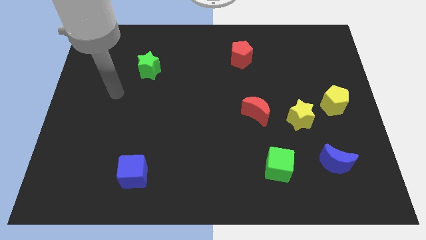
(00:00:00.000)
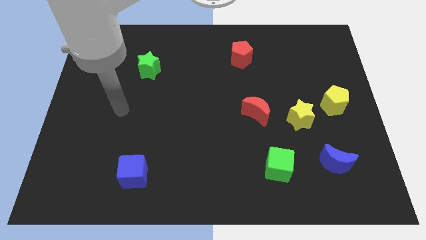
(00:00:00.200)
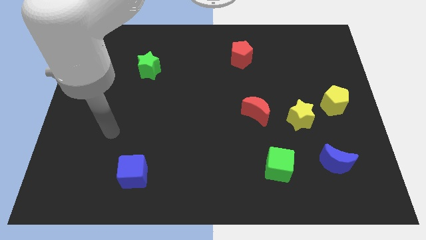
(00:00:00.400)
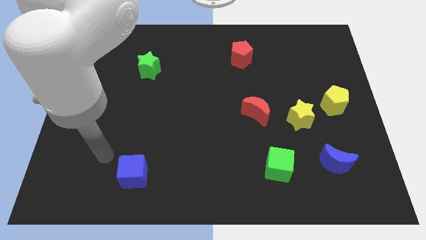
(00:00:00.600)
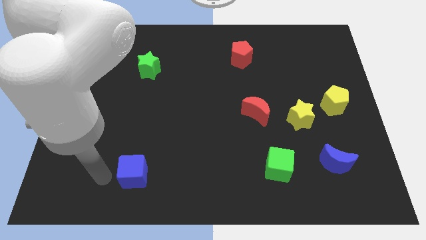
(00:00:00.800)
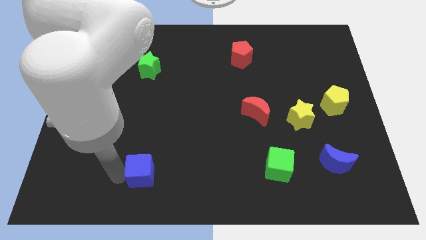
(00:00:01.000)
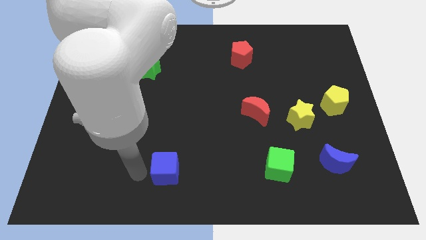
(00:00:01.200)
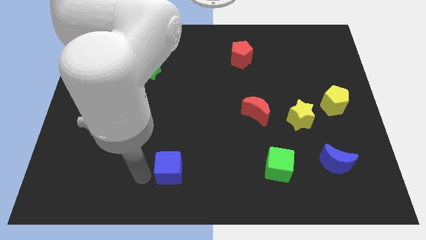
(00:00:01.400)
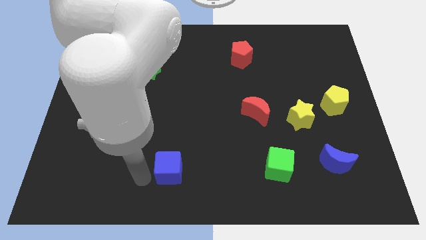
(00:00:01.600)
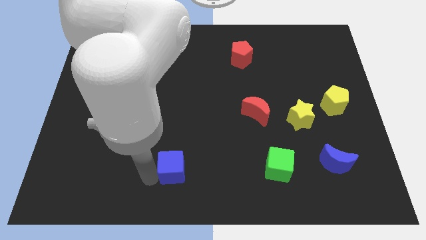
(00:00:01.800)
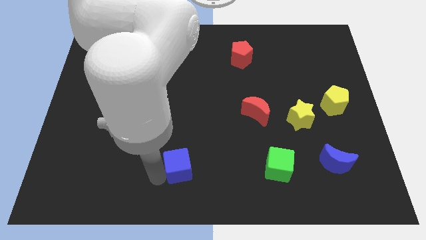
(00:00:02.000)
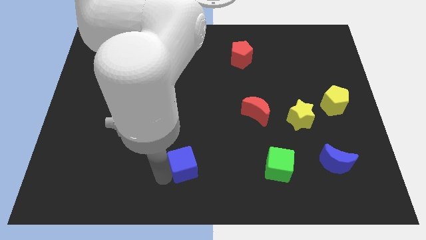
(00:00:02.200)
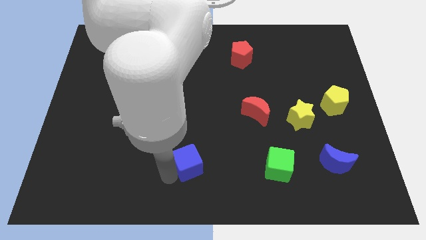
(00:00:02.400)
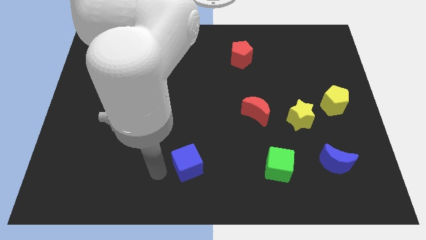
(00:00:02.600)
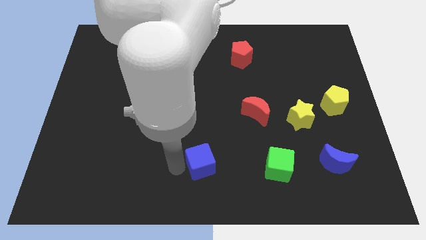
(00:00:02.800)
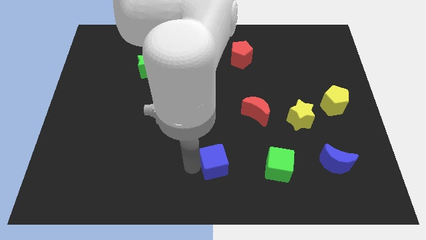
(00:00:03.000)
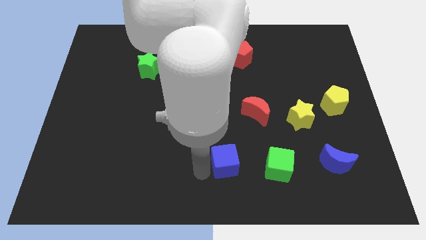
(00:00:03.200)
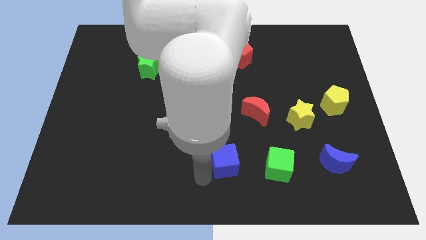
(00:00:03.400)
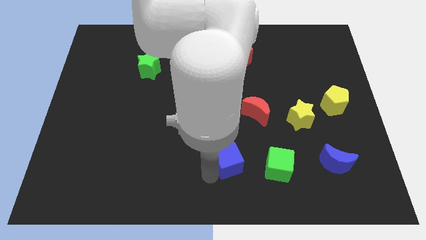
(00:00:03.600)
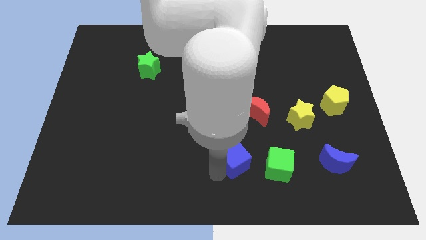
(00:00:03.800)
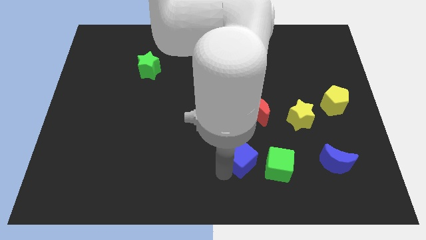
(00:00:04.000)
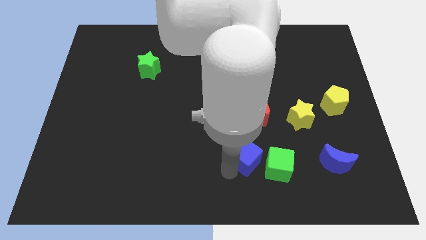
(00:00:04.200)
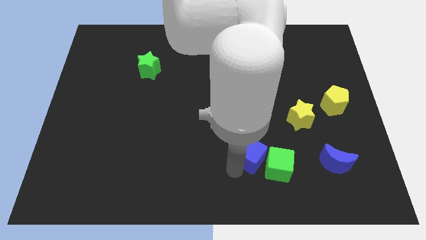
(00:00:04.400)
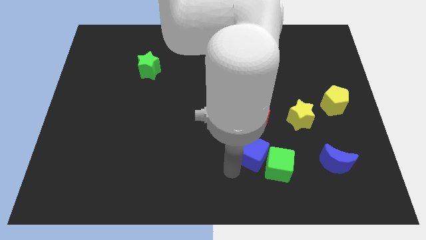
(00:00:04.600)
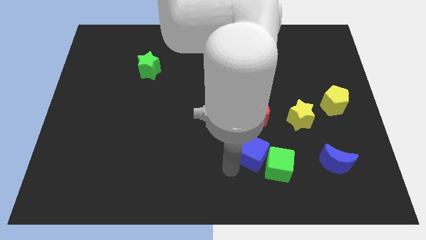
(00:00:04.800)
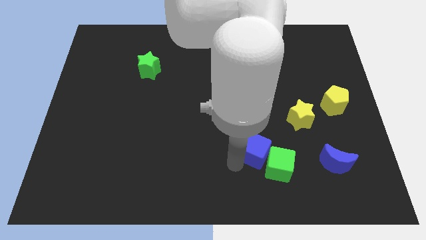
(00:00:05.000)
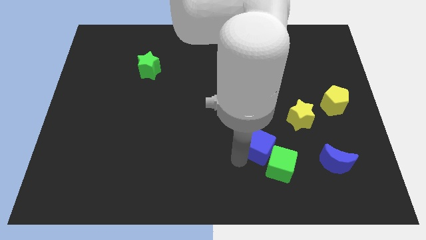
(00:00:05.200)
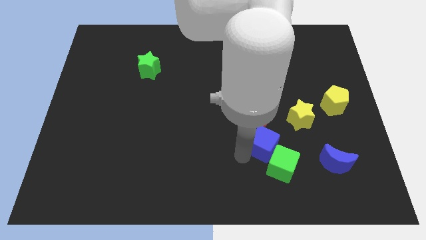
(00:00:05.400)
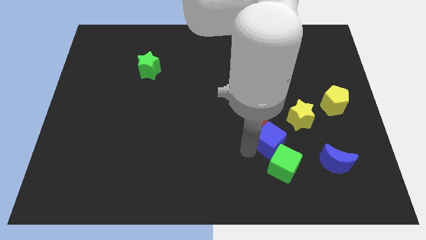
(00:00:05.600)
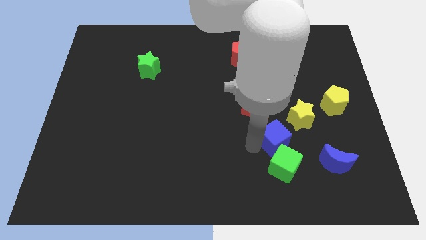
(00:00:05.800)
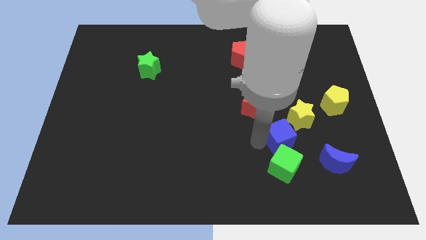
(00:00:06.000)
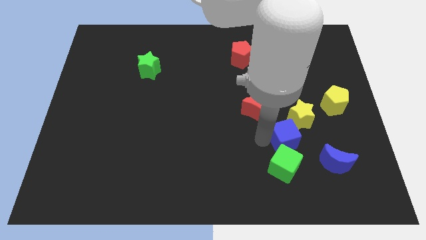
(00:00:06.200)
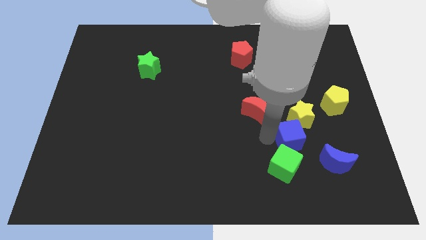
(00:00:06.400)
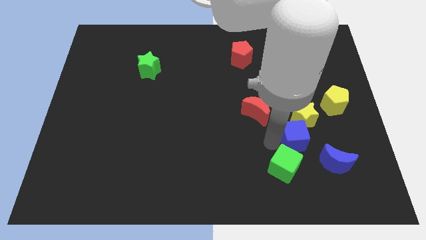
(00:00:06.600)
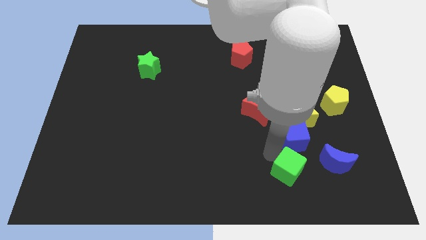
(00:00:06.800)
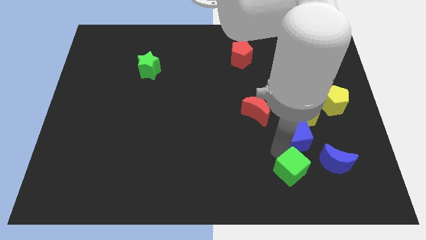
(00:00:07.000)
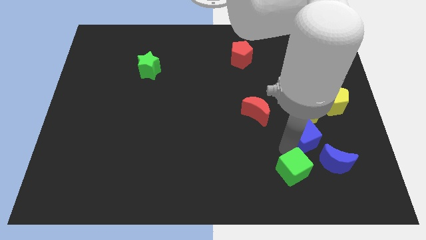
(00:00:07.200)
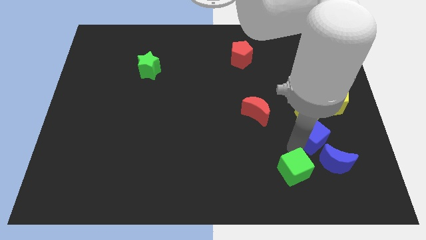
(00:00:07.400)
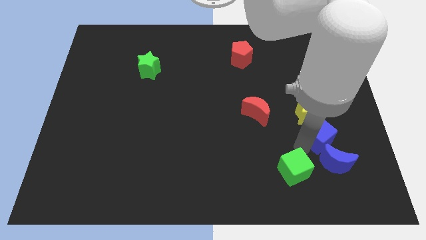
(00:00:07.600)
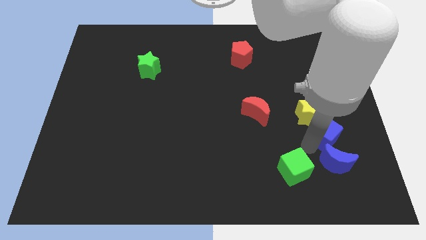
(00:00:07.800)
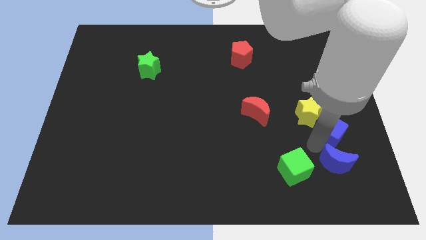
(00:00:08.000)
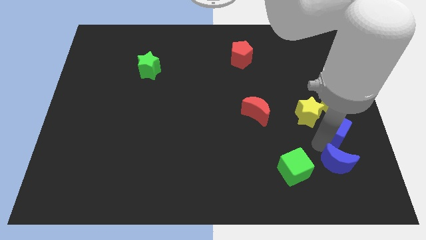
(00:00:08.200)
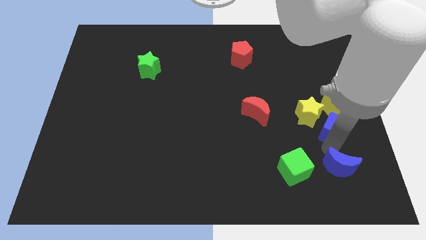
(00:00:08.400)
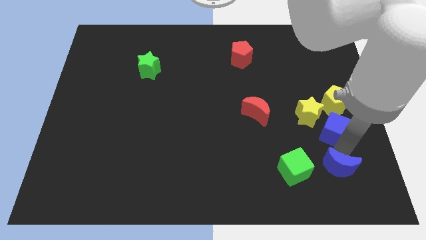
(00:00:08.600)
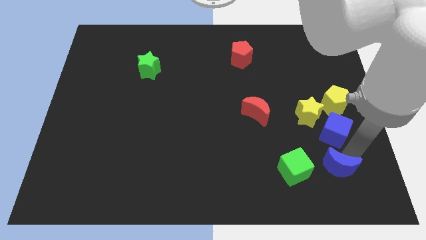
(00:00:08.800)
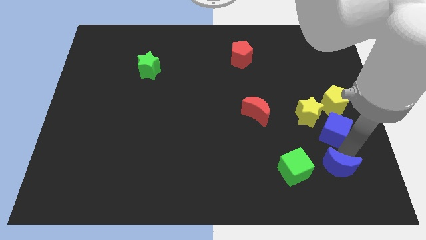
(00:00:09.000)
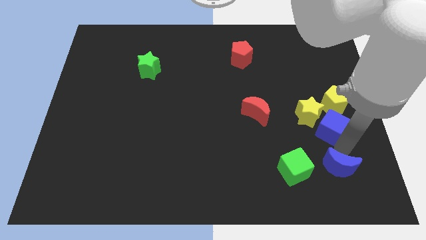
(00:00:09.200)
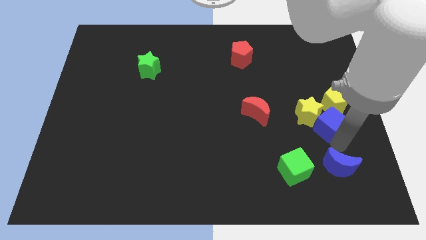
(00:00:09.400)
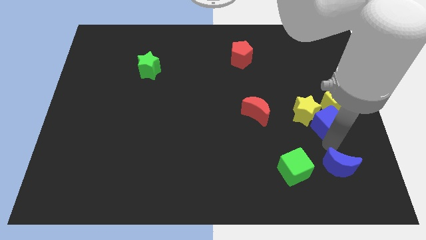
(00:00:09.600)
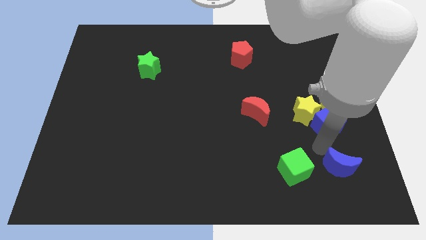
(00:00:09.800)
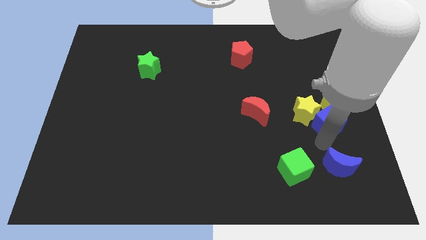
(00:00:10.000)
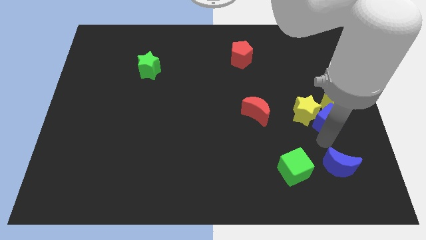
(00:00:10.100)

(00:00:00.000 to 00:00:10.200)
push the blue cube towards the yellow pentagon

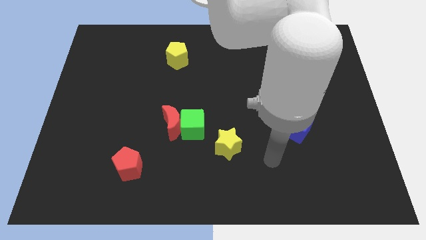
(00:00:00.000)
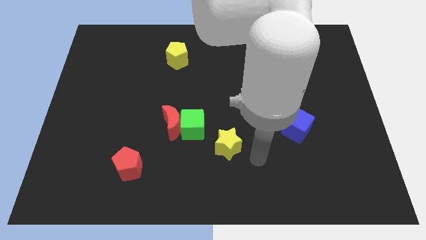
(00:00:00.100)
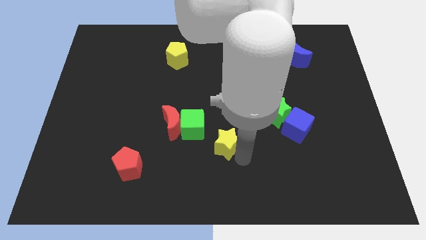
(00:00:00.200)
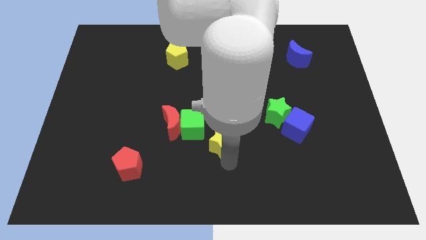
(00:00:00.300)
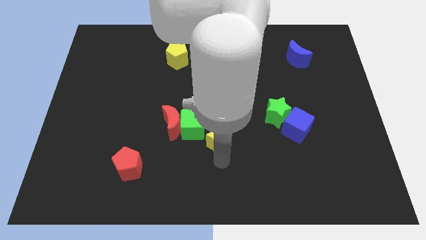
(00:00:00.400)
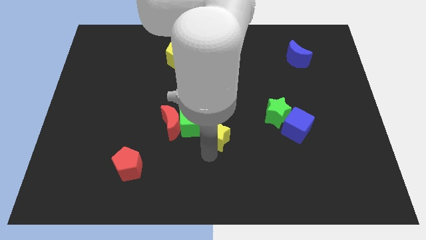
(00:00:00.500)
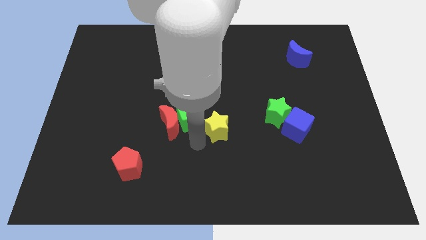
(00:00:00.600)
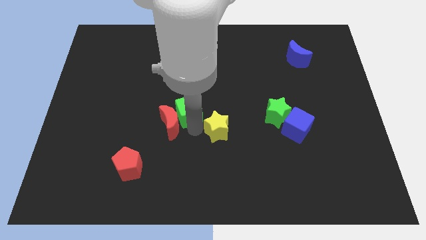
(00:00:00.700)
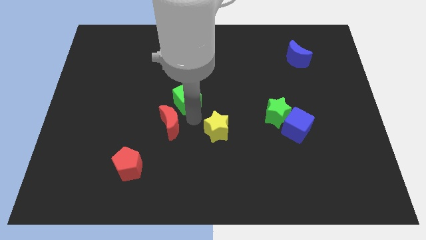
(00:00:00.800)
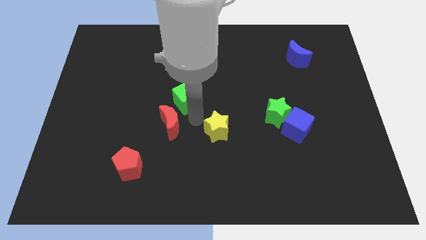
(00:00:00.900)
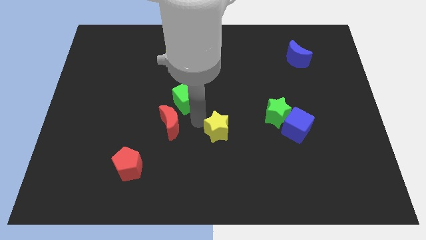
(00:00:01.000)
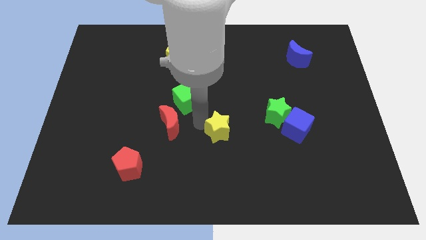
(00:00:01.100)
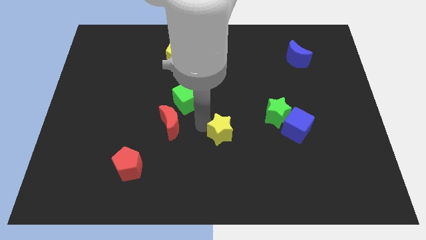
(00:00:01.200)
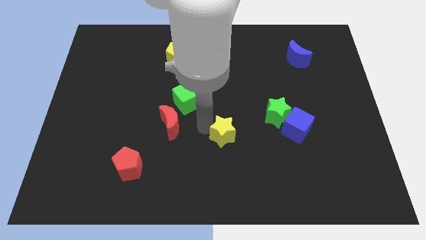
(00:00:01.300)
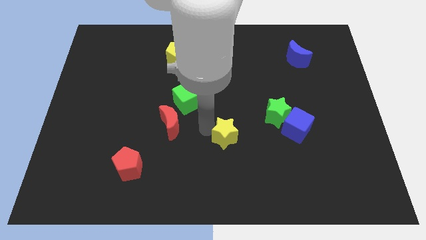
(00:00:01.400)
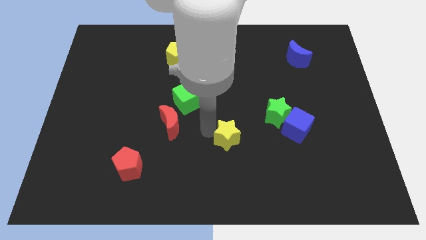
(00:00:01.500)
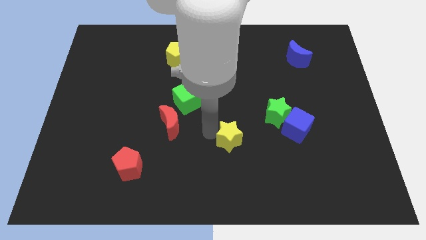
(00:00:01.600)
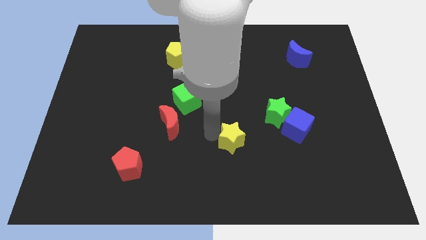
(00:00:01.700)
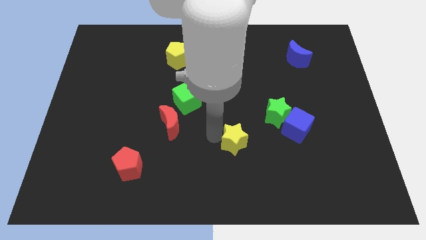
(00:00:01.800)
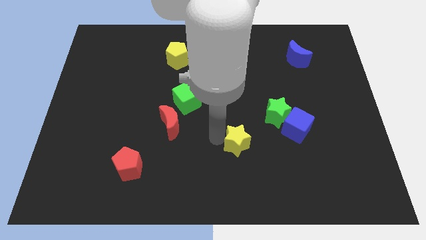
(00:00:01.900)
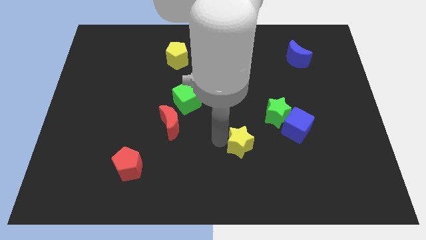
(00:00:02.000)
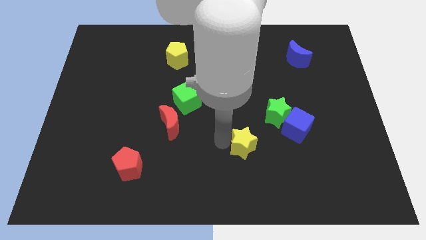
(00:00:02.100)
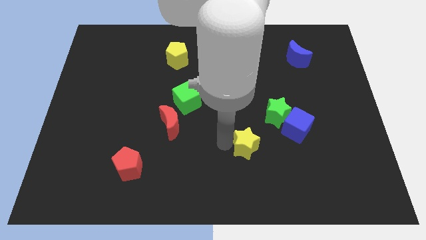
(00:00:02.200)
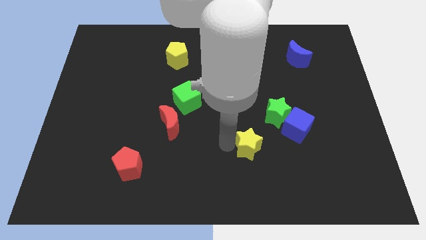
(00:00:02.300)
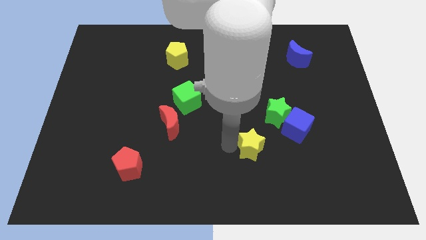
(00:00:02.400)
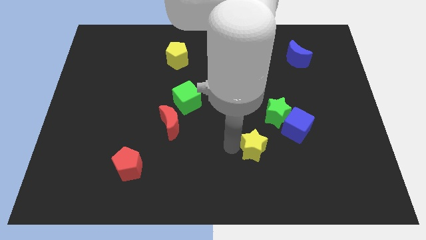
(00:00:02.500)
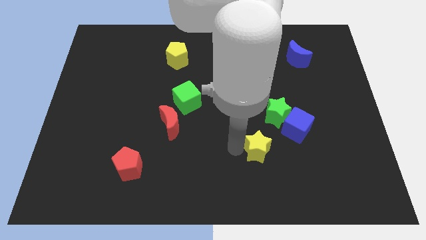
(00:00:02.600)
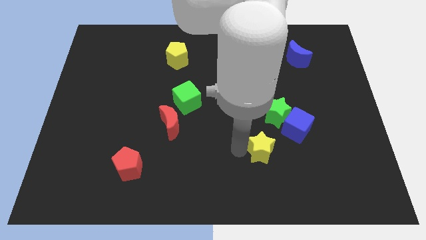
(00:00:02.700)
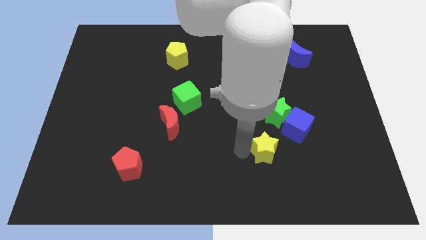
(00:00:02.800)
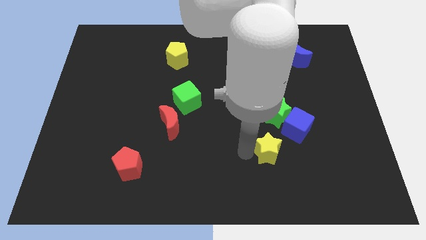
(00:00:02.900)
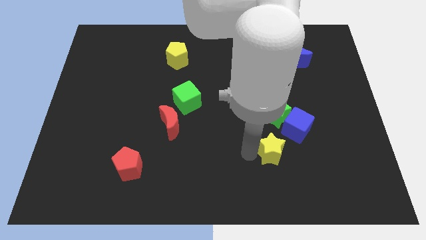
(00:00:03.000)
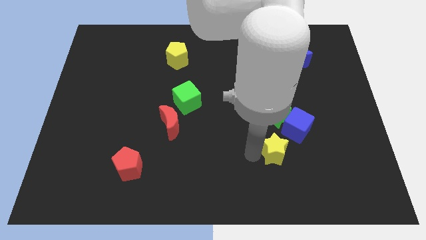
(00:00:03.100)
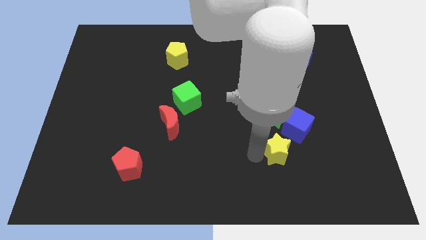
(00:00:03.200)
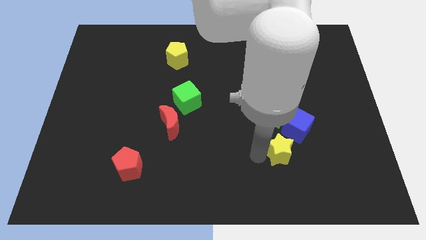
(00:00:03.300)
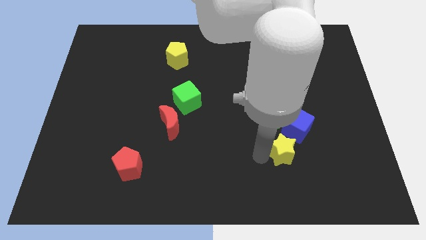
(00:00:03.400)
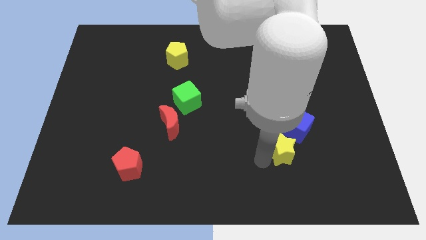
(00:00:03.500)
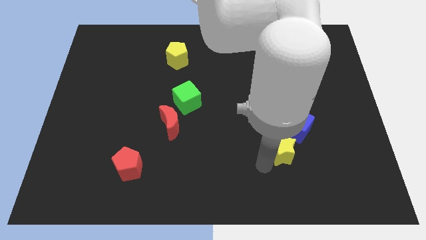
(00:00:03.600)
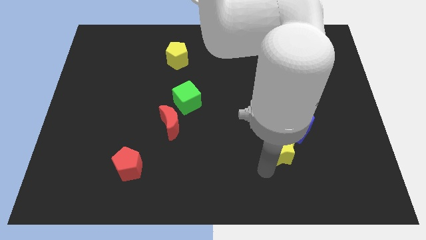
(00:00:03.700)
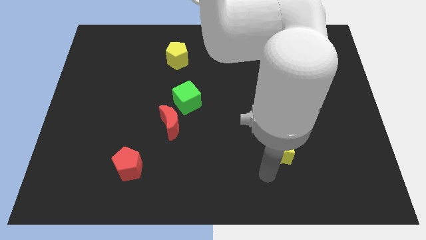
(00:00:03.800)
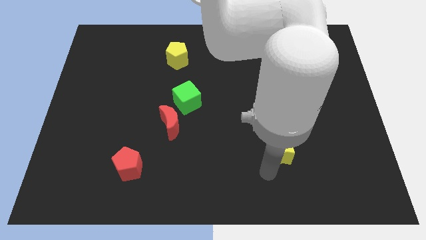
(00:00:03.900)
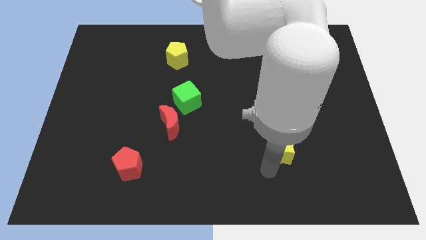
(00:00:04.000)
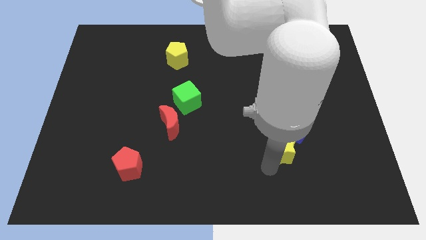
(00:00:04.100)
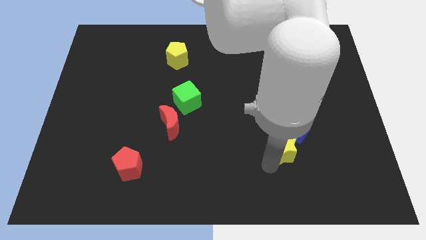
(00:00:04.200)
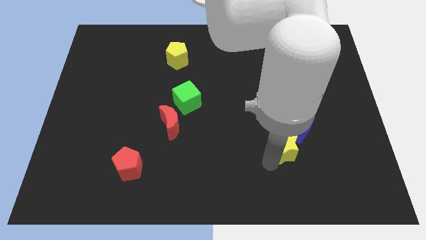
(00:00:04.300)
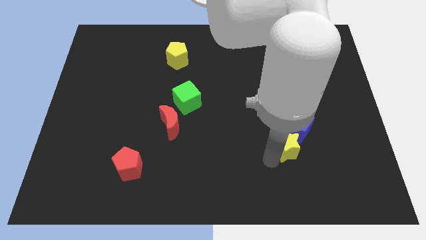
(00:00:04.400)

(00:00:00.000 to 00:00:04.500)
push the yellow star next to the blue cube
